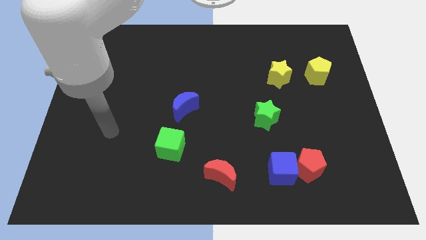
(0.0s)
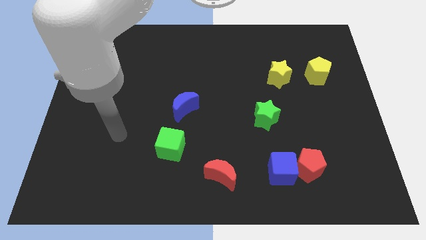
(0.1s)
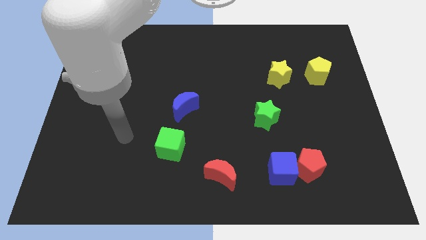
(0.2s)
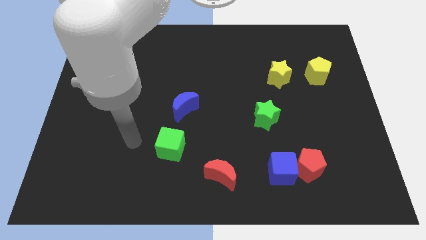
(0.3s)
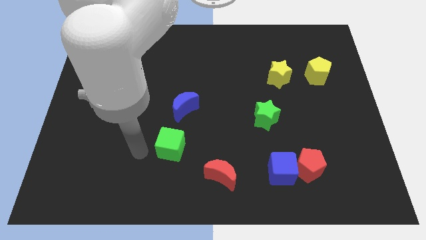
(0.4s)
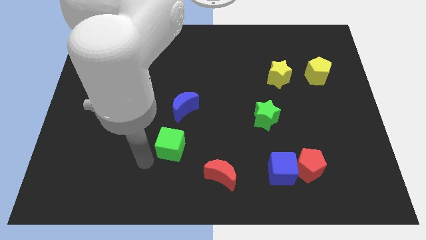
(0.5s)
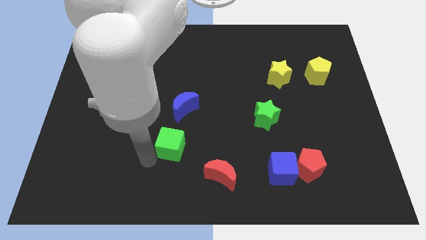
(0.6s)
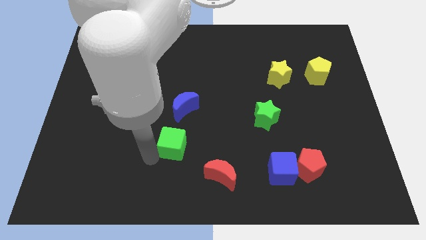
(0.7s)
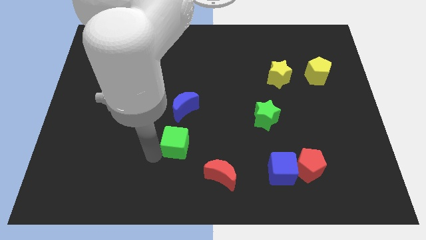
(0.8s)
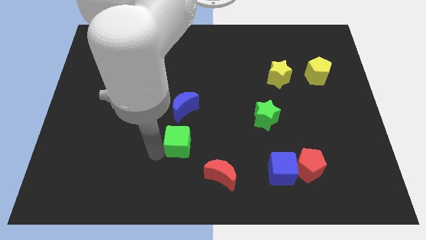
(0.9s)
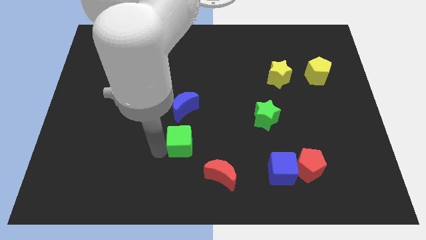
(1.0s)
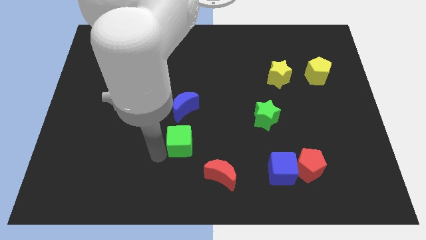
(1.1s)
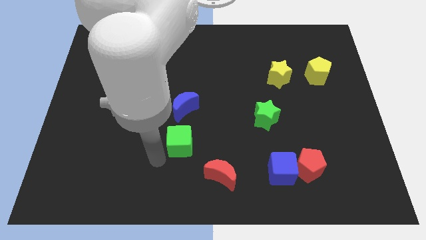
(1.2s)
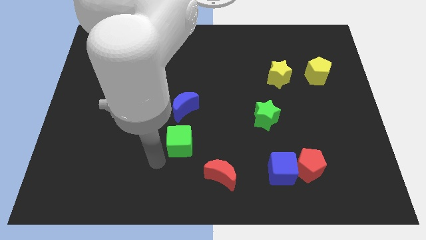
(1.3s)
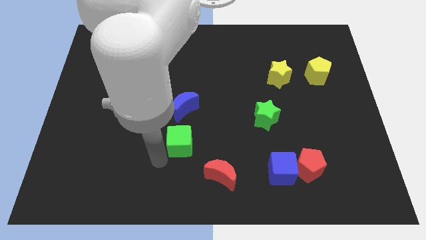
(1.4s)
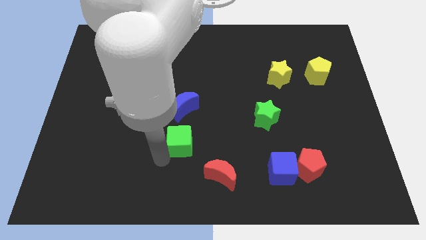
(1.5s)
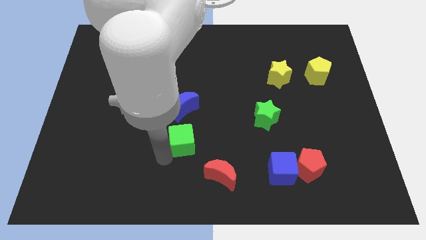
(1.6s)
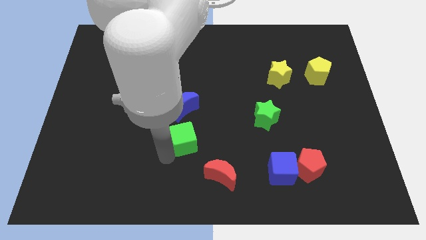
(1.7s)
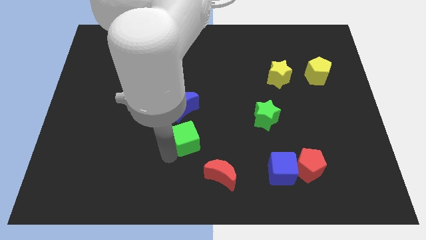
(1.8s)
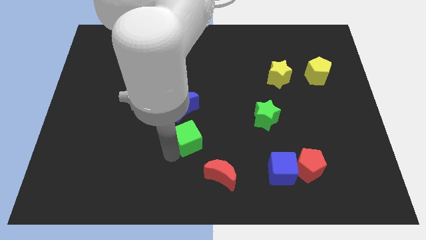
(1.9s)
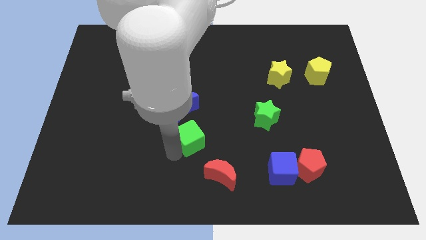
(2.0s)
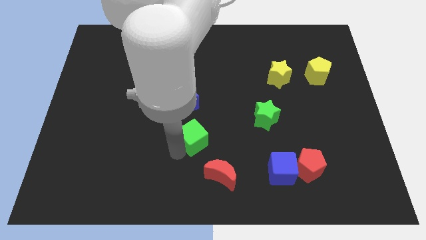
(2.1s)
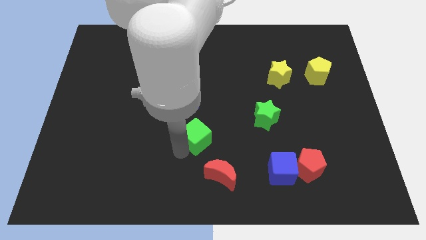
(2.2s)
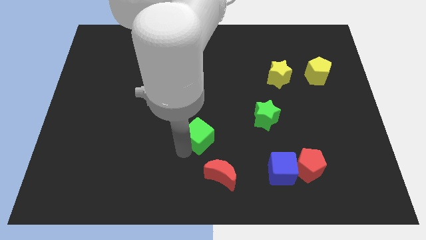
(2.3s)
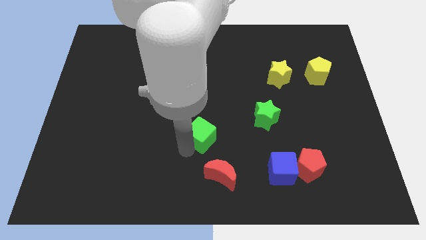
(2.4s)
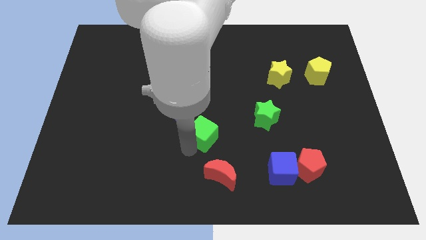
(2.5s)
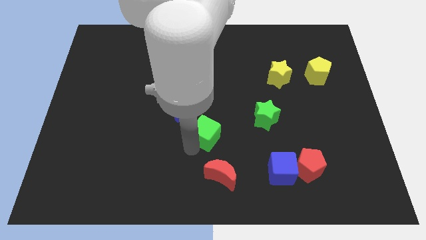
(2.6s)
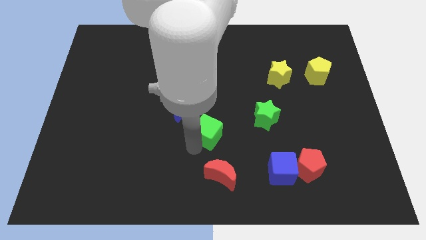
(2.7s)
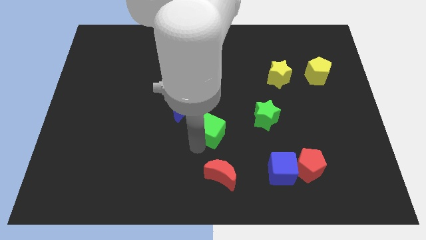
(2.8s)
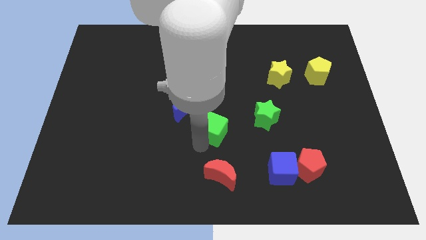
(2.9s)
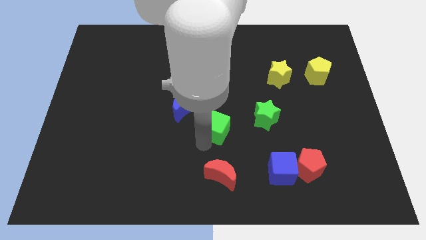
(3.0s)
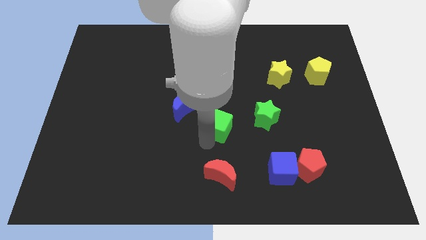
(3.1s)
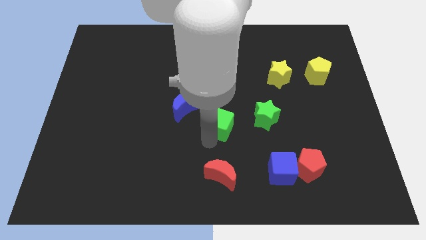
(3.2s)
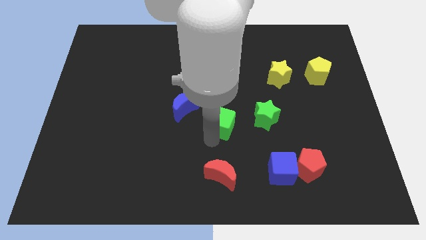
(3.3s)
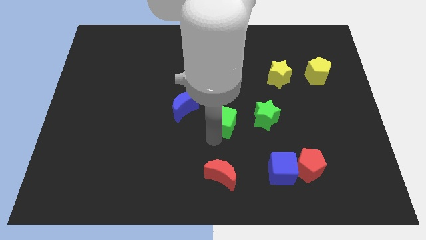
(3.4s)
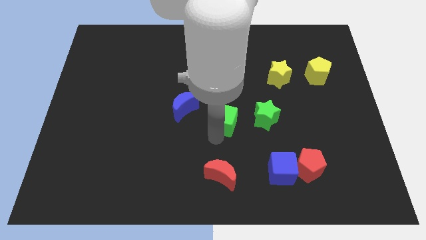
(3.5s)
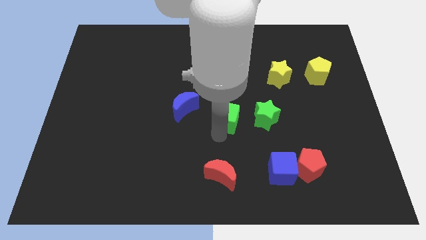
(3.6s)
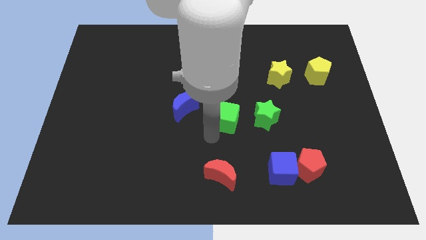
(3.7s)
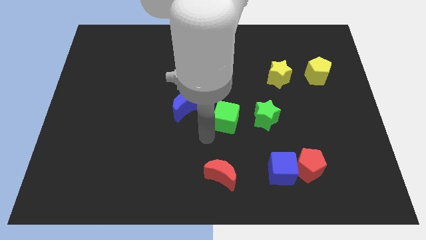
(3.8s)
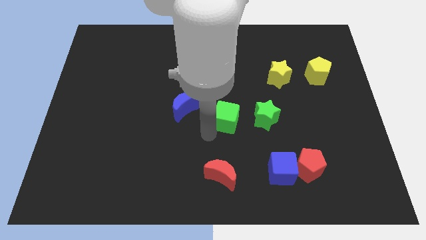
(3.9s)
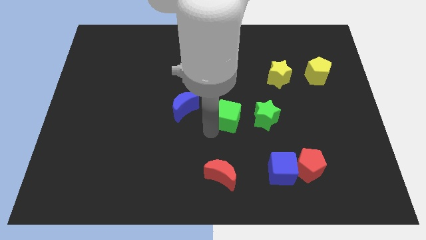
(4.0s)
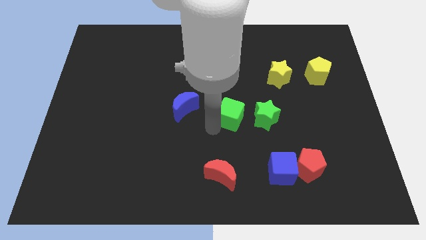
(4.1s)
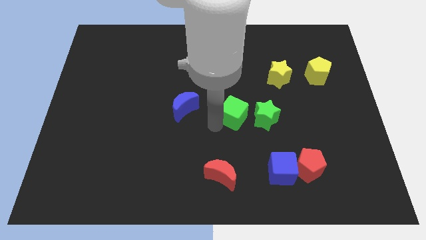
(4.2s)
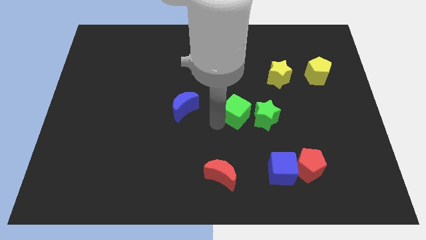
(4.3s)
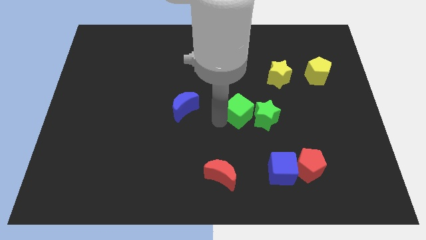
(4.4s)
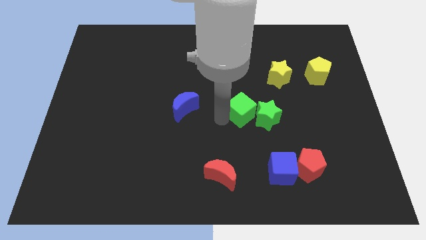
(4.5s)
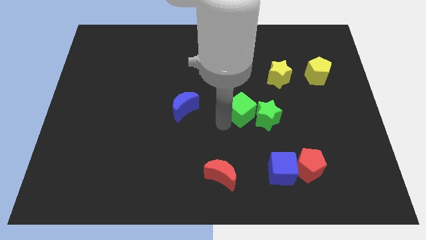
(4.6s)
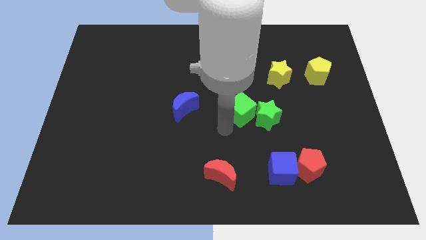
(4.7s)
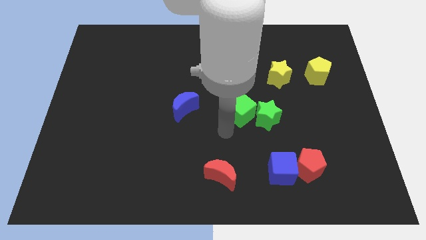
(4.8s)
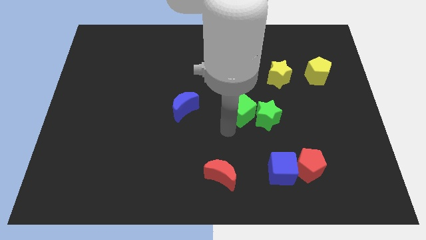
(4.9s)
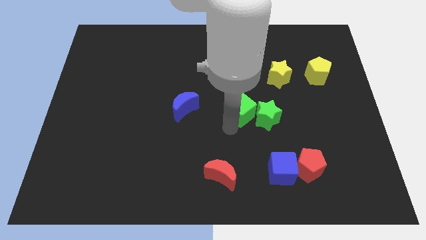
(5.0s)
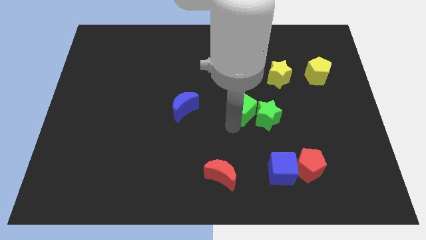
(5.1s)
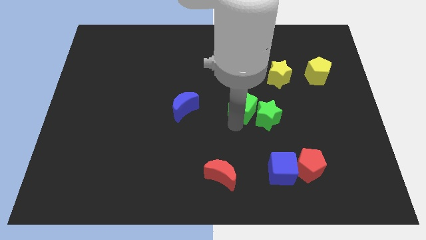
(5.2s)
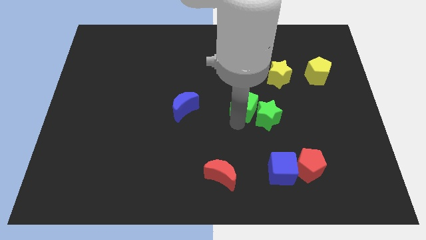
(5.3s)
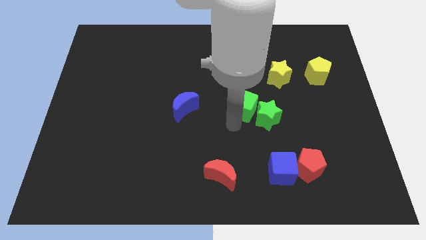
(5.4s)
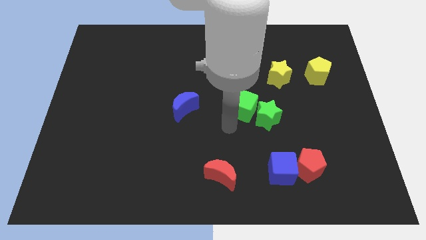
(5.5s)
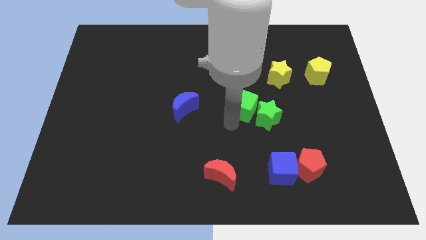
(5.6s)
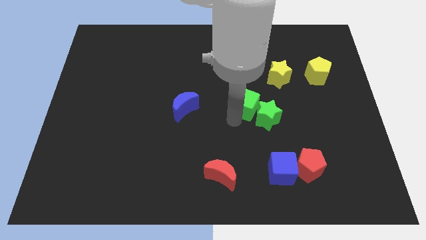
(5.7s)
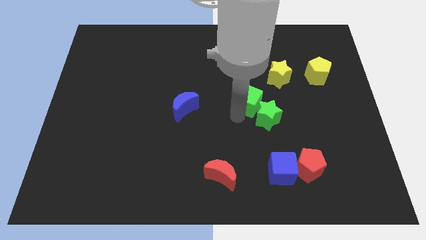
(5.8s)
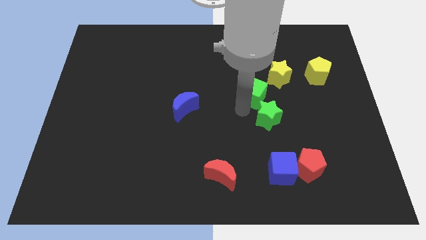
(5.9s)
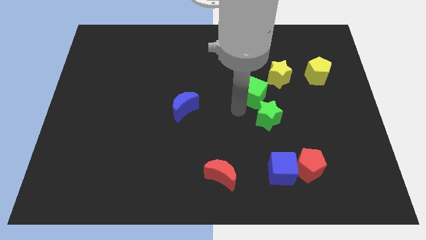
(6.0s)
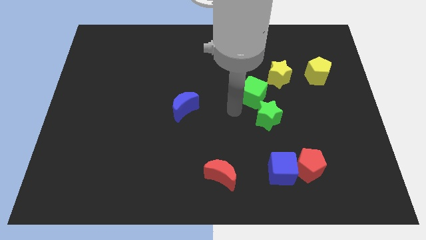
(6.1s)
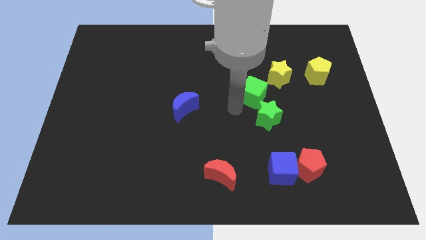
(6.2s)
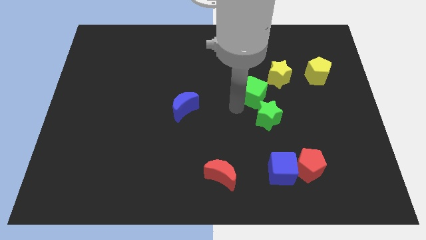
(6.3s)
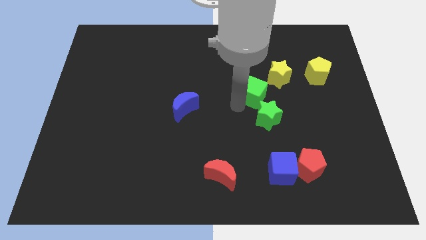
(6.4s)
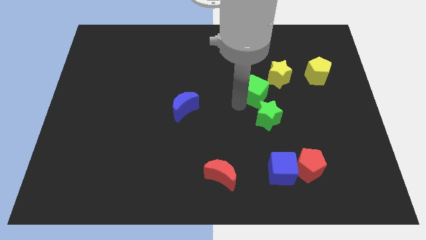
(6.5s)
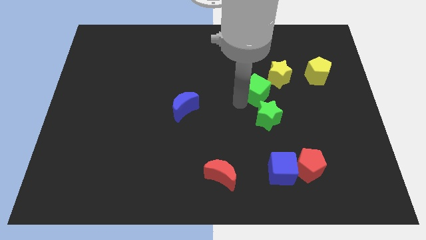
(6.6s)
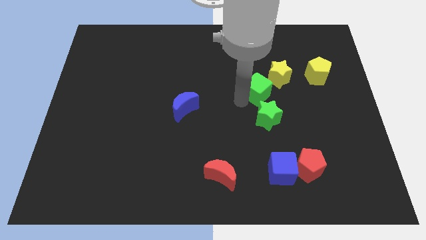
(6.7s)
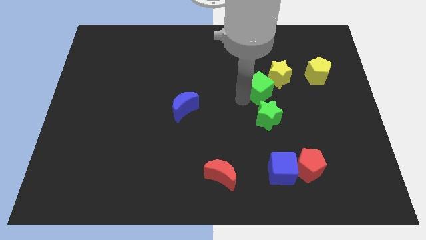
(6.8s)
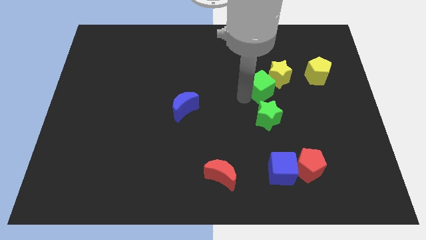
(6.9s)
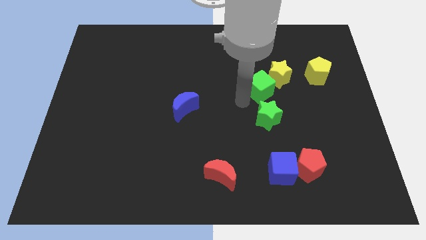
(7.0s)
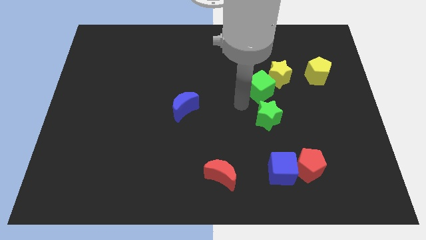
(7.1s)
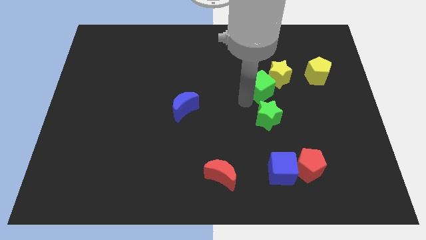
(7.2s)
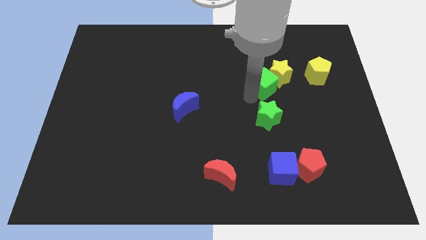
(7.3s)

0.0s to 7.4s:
move the green cube close to the yellow star

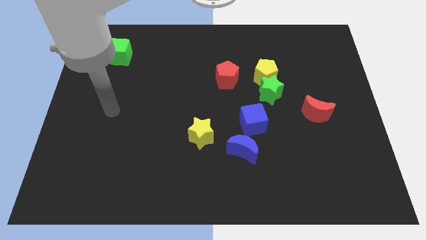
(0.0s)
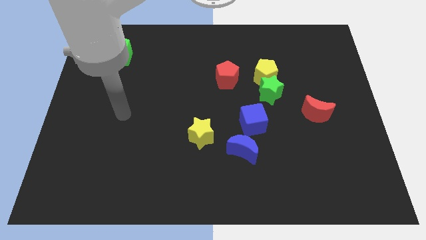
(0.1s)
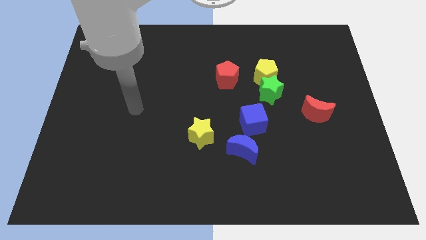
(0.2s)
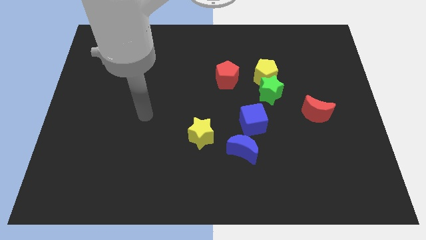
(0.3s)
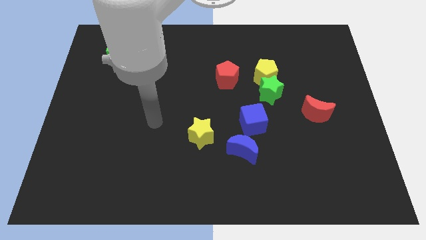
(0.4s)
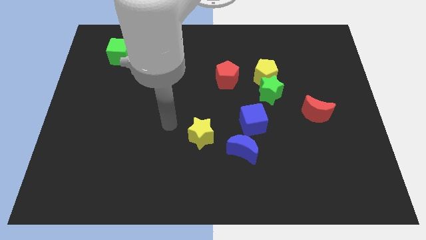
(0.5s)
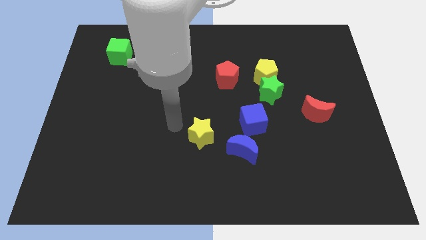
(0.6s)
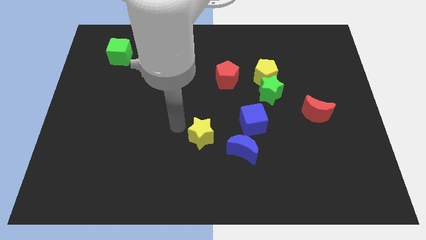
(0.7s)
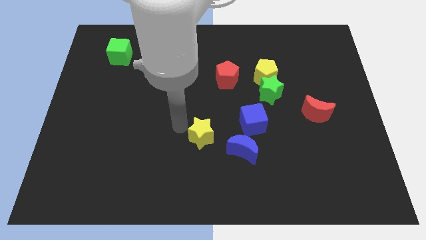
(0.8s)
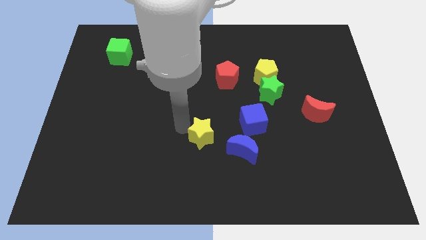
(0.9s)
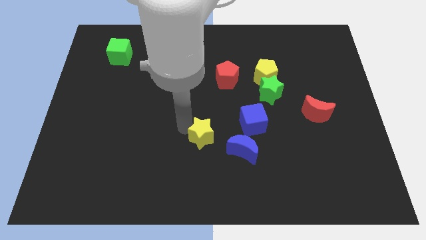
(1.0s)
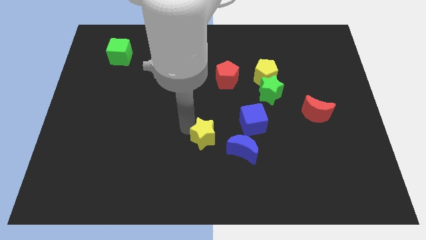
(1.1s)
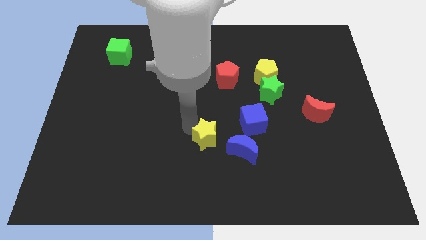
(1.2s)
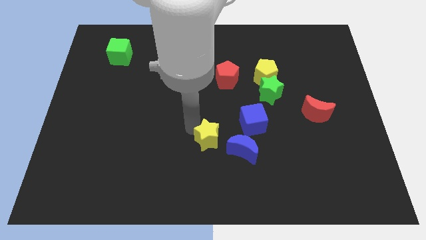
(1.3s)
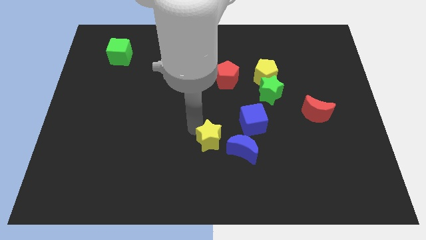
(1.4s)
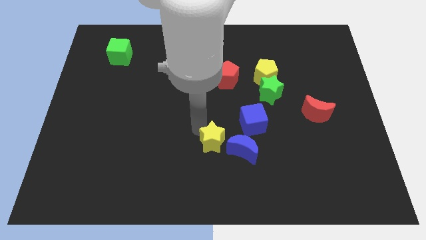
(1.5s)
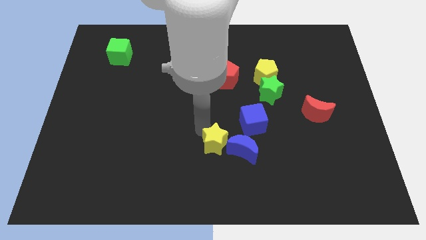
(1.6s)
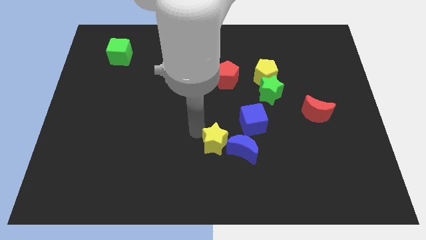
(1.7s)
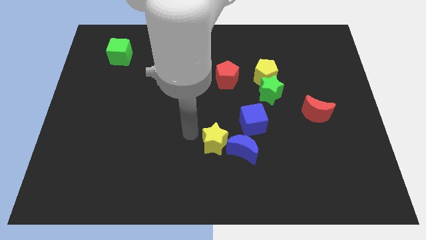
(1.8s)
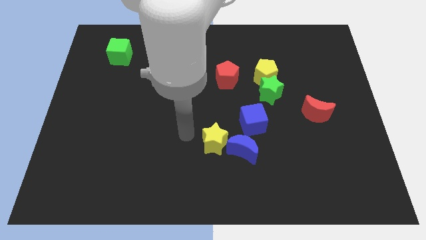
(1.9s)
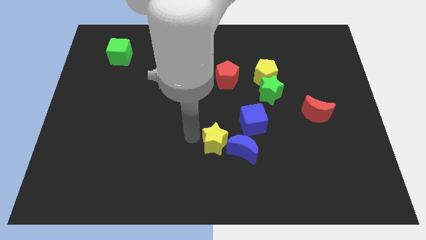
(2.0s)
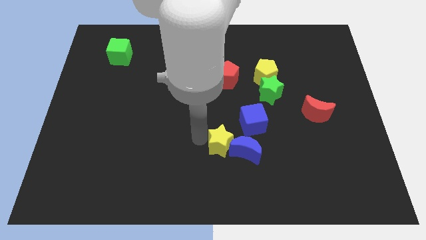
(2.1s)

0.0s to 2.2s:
slide the yellow star to the blue moon
